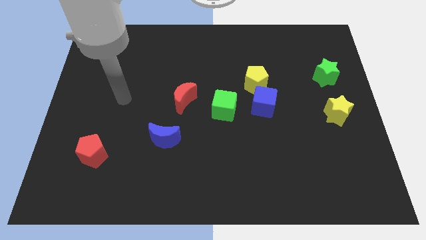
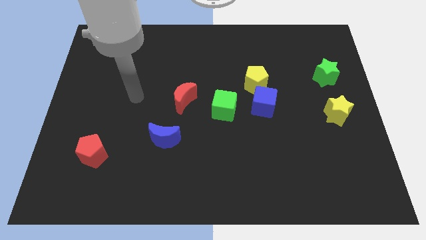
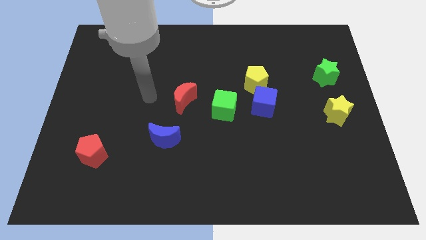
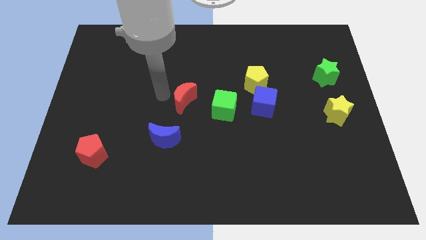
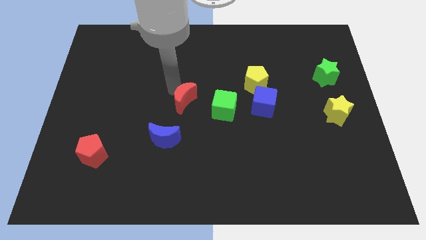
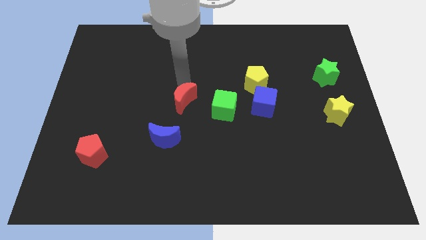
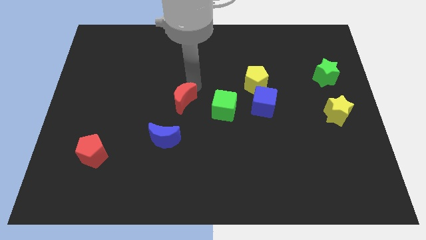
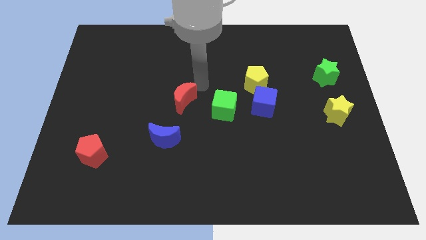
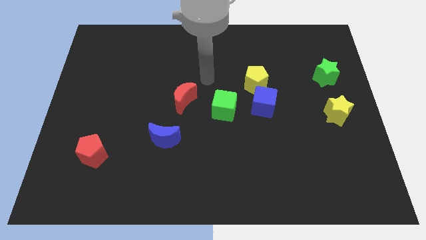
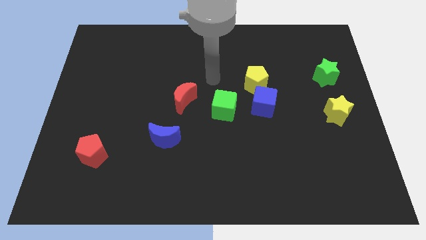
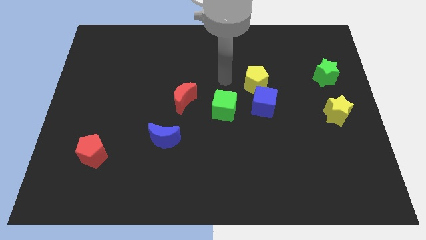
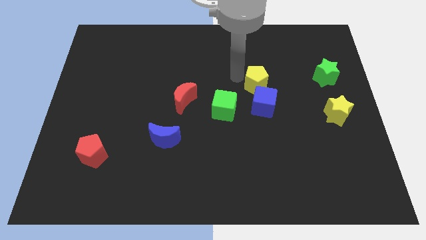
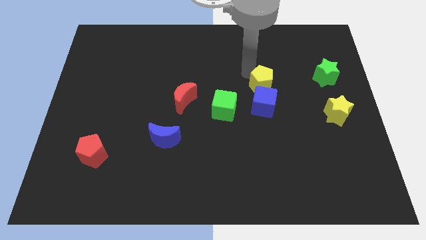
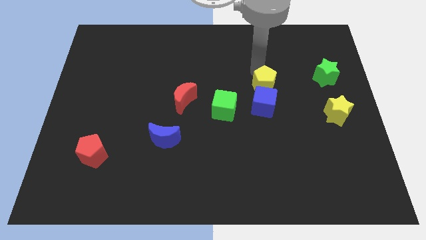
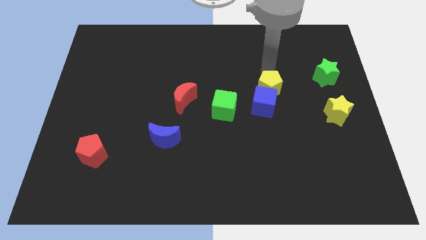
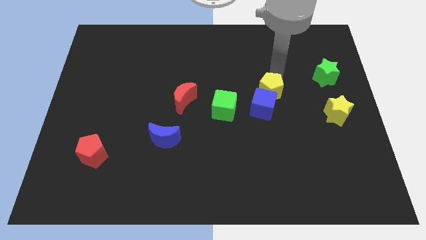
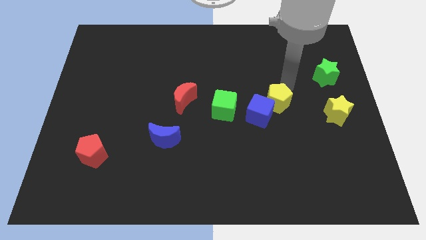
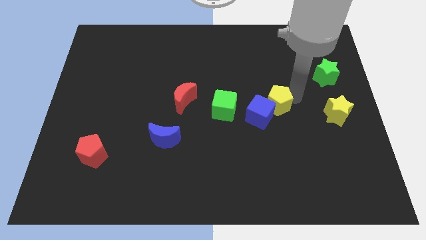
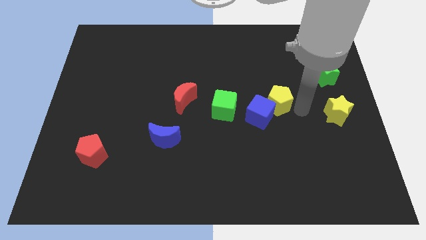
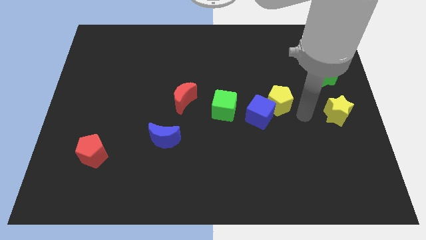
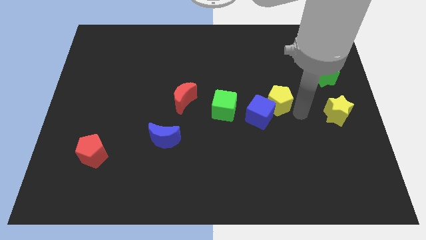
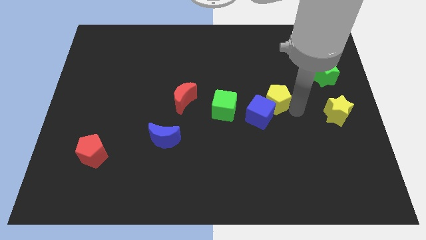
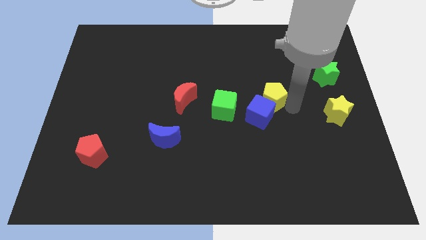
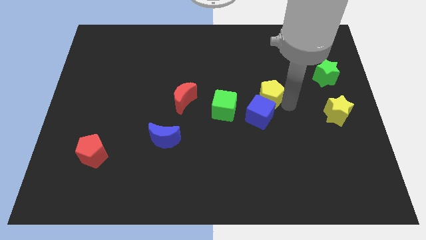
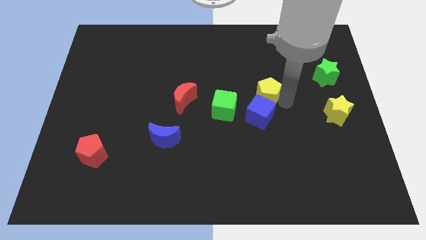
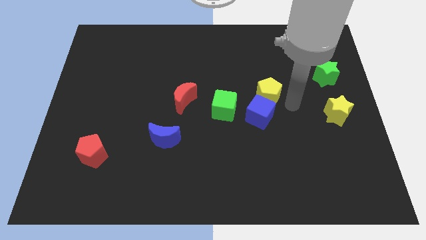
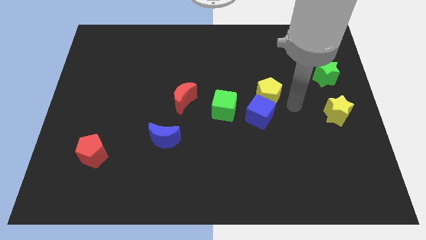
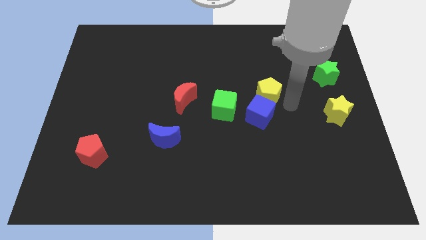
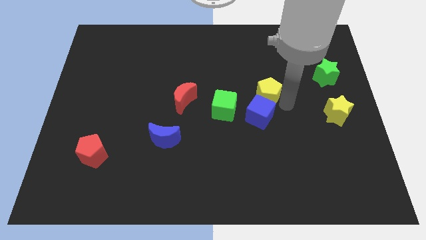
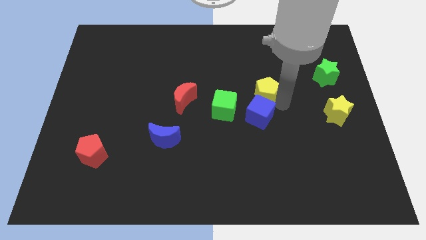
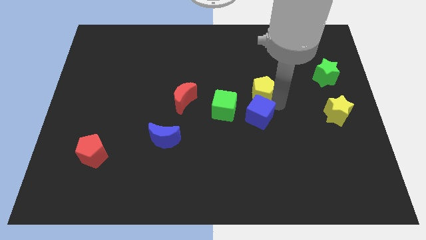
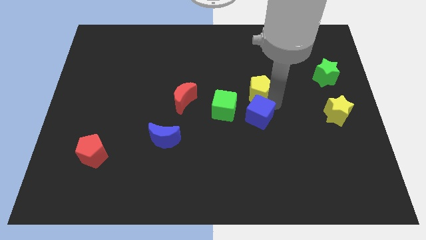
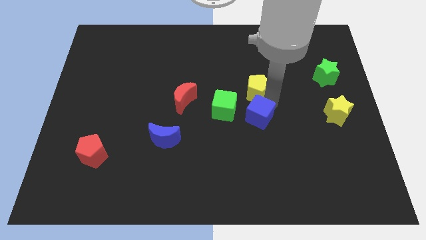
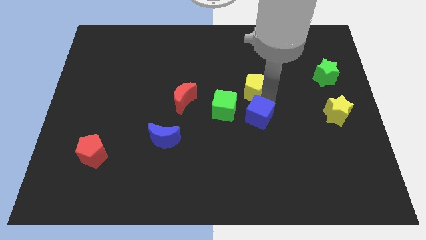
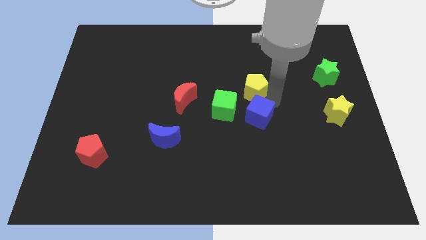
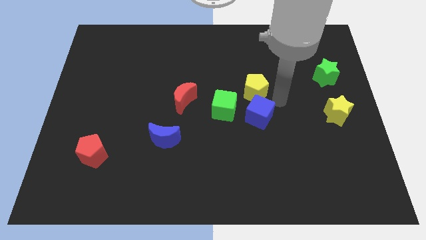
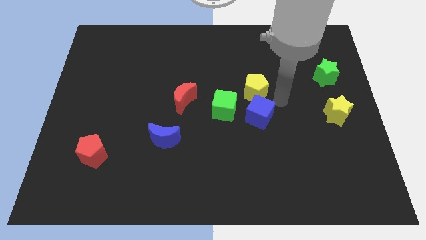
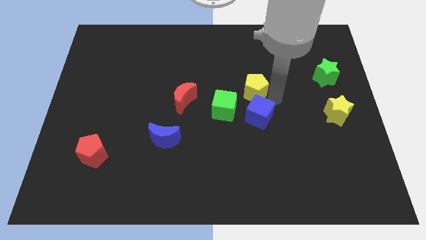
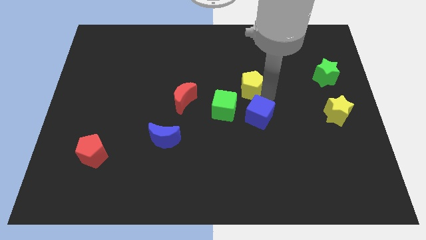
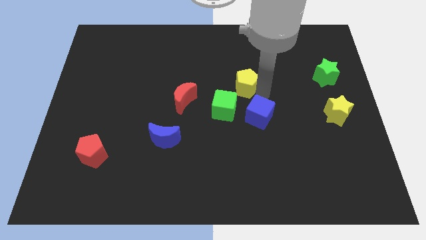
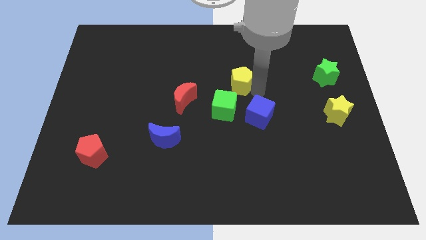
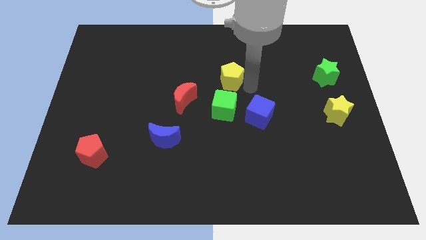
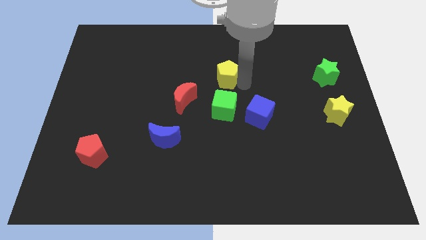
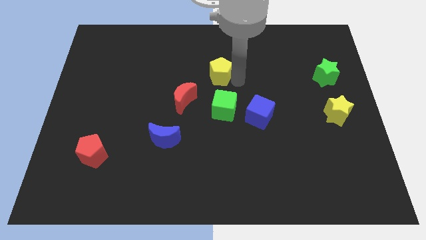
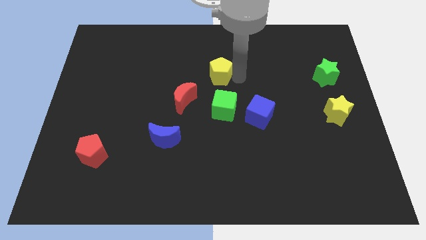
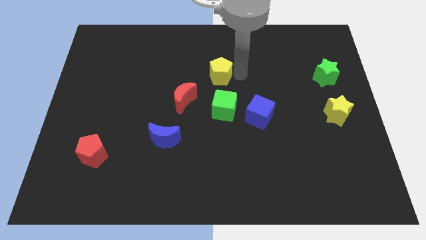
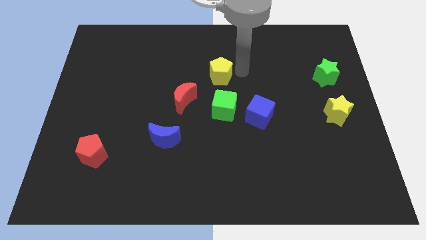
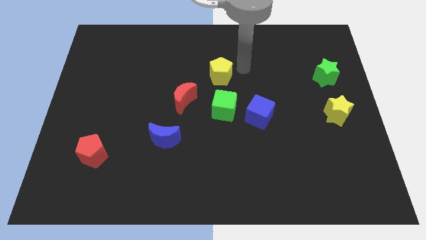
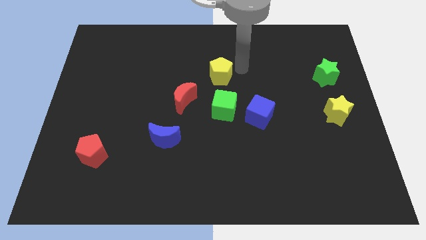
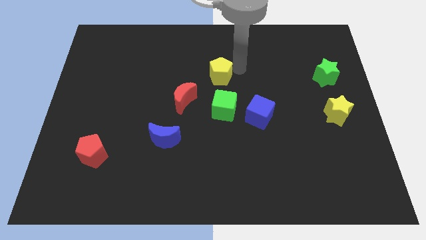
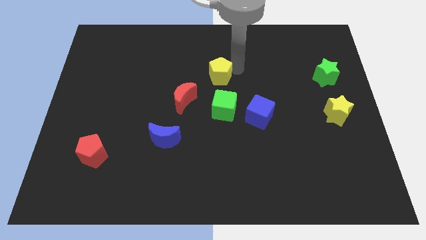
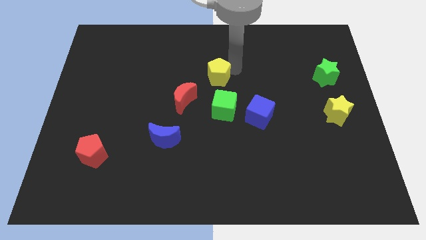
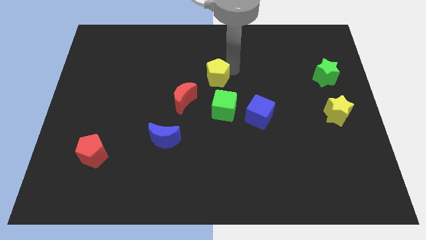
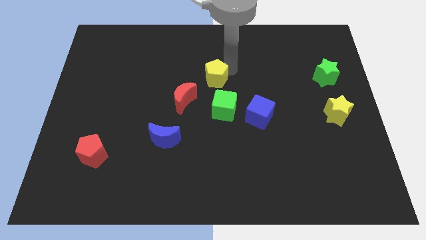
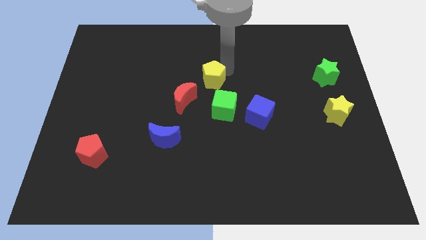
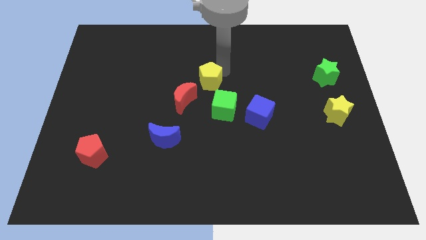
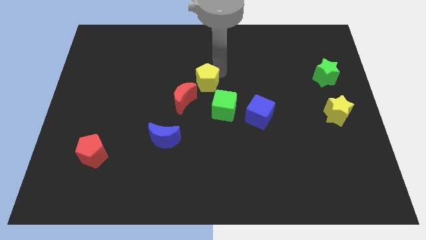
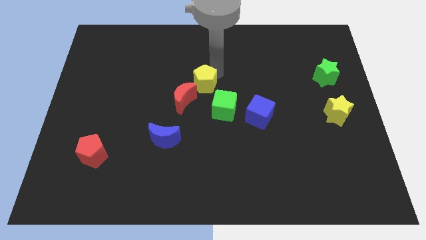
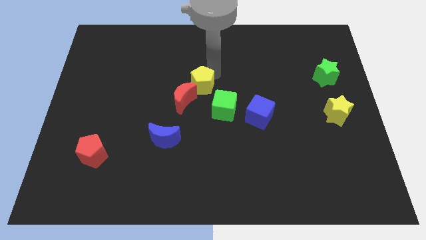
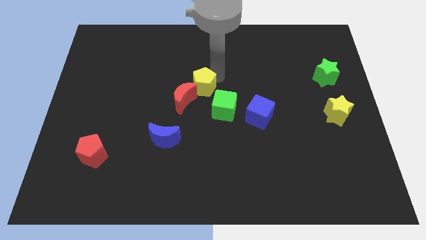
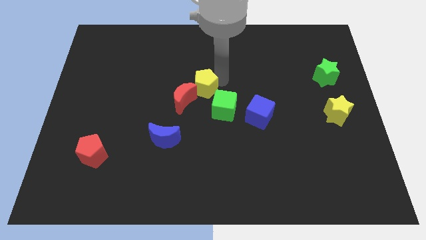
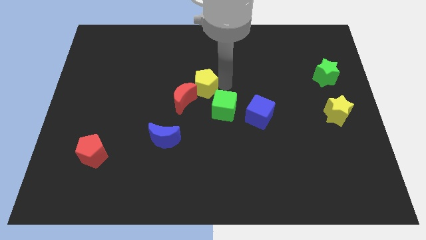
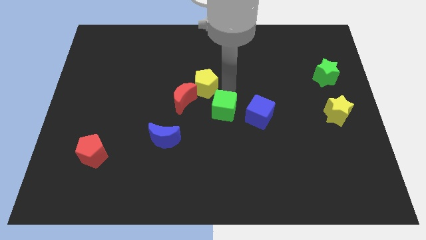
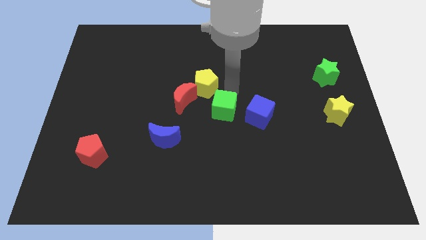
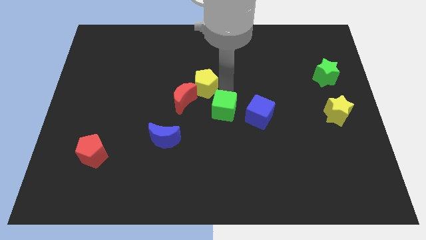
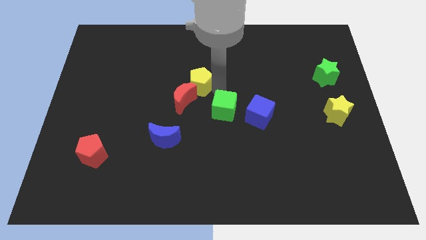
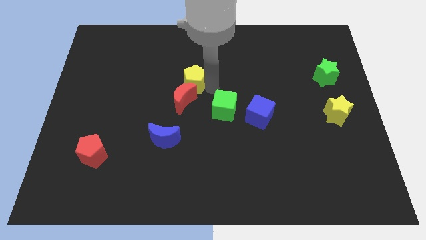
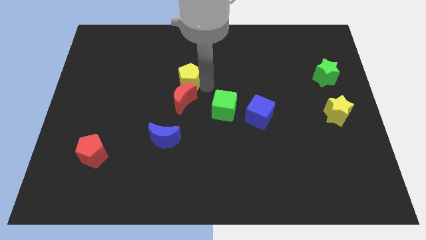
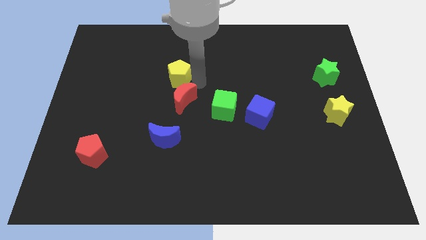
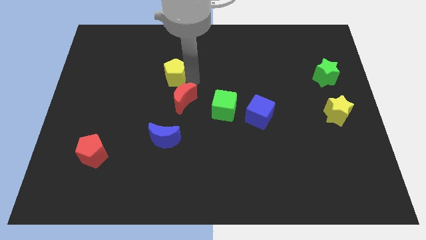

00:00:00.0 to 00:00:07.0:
slide the yellow pentagon to the left

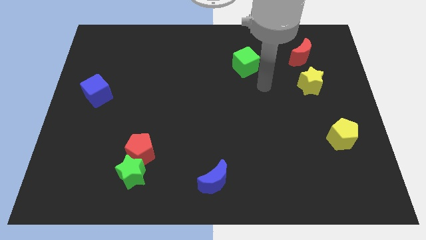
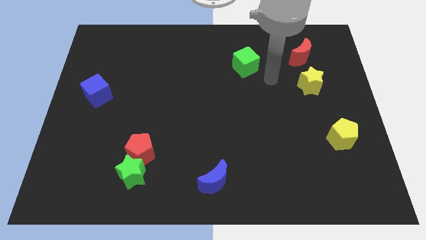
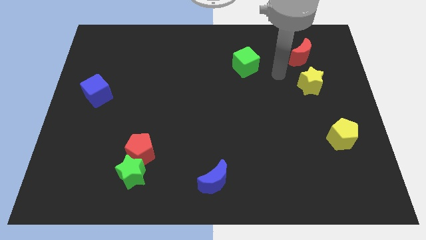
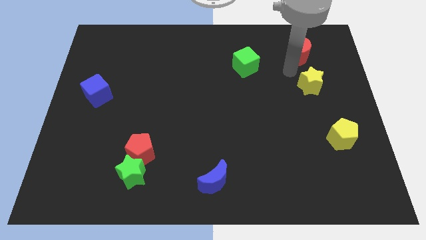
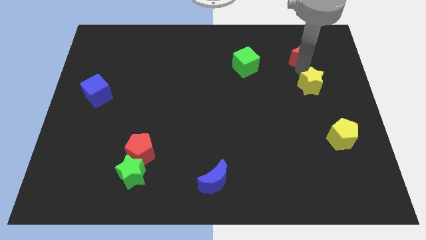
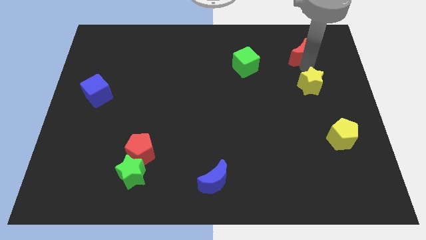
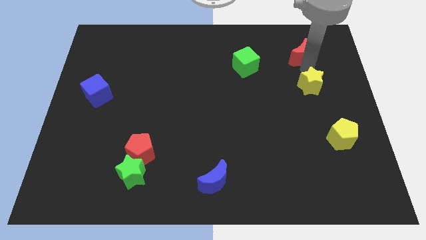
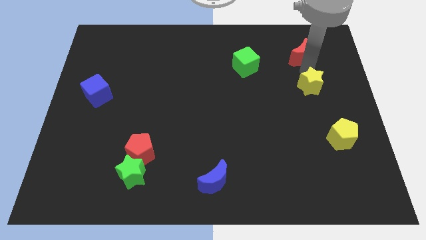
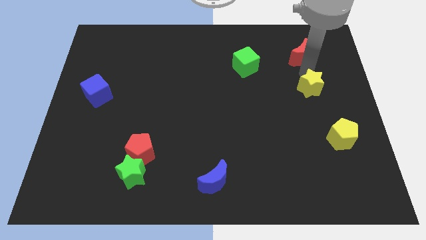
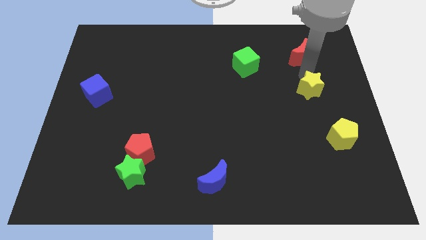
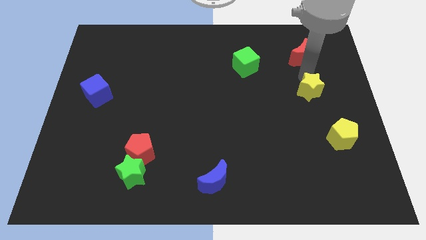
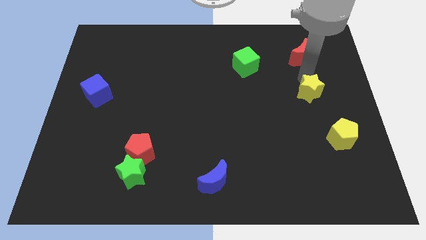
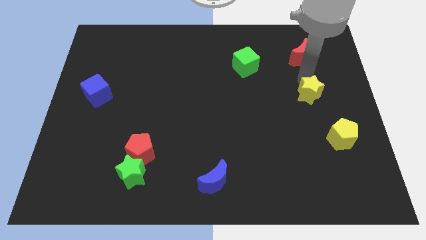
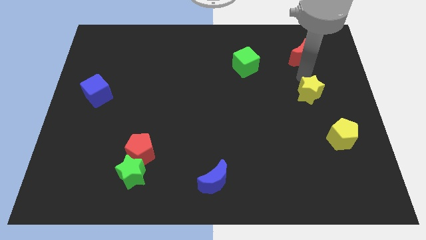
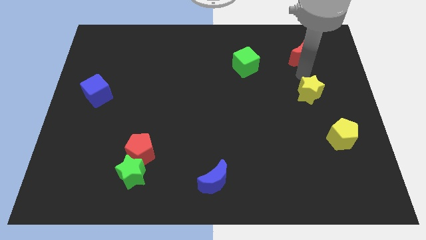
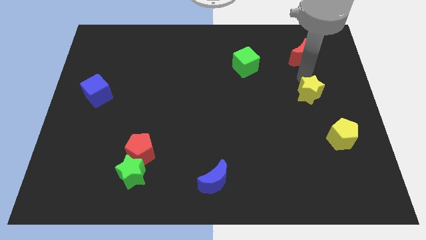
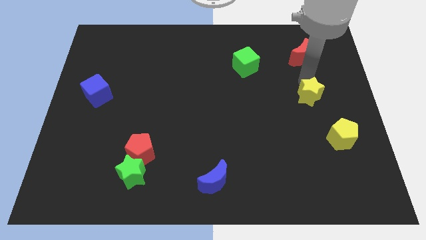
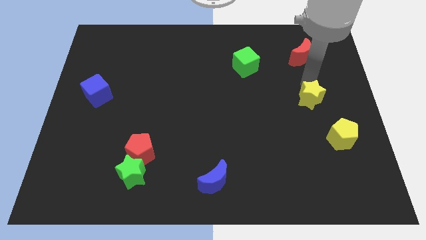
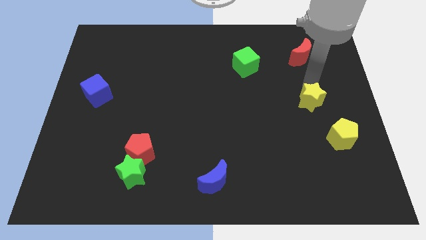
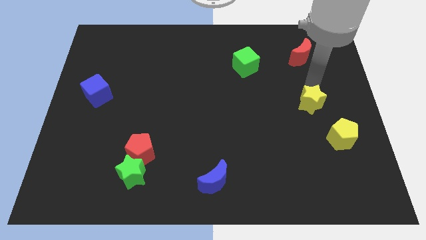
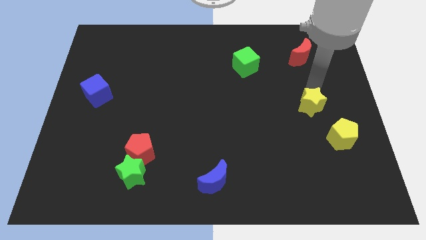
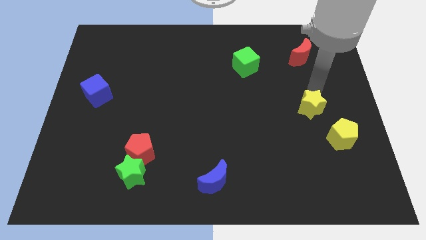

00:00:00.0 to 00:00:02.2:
slightly slide the yellow star down
